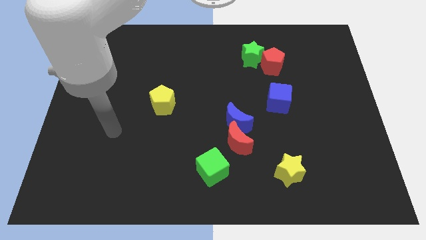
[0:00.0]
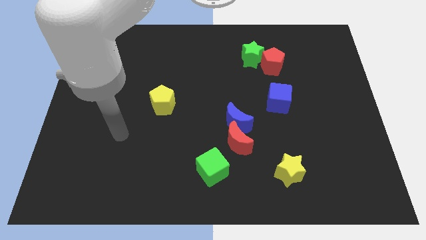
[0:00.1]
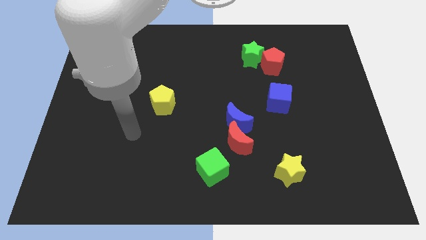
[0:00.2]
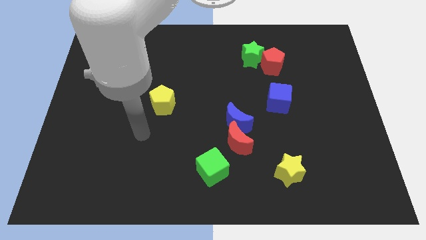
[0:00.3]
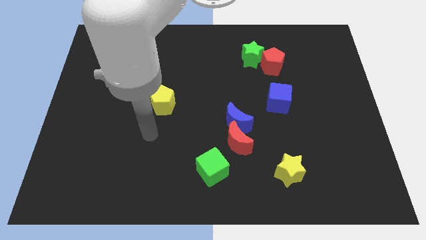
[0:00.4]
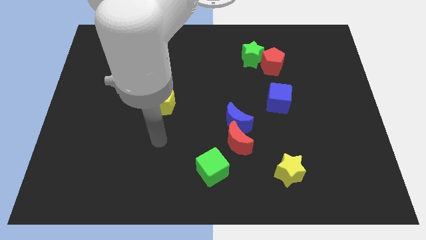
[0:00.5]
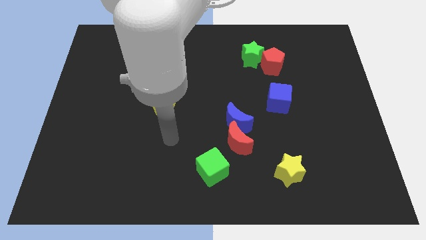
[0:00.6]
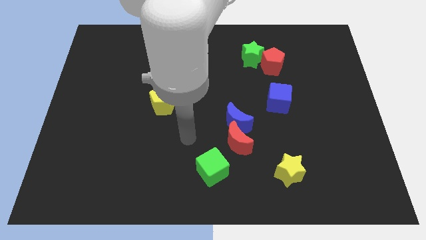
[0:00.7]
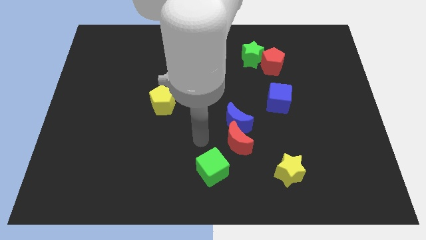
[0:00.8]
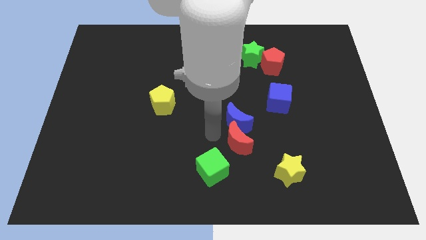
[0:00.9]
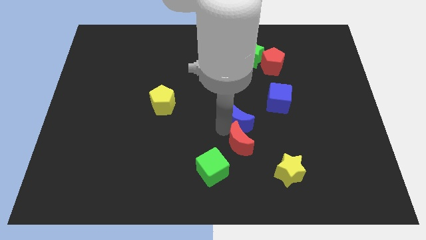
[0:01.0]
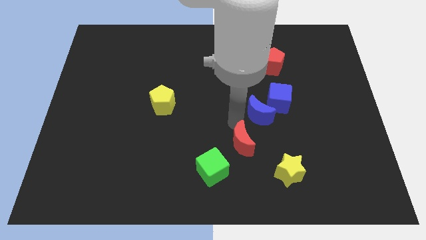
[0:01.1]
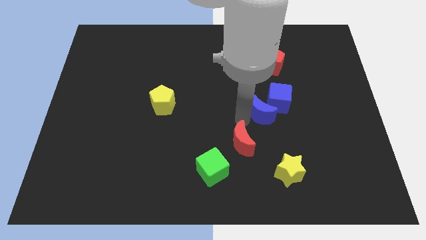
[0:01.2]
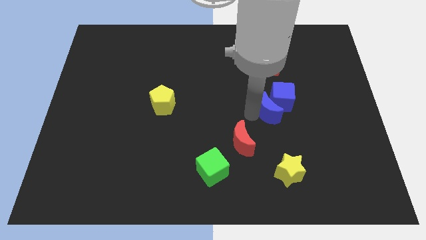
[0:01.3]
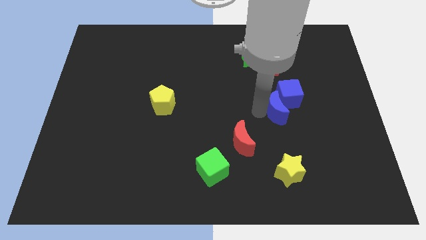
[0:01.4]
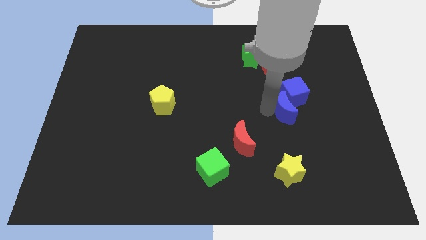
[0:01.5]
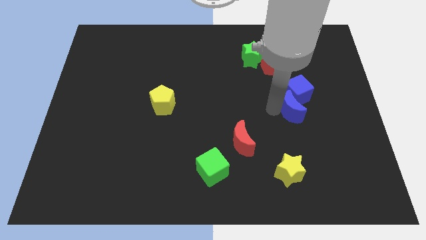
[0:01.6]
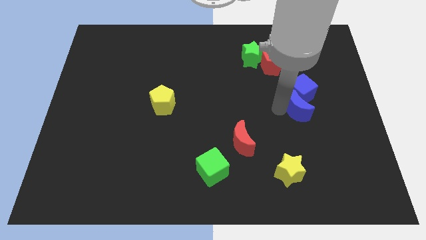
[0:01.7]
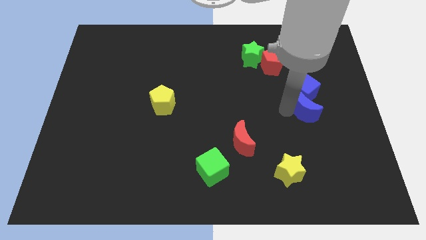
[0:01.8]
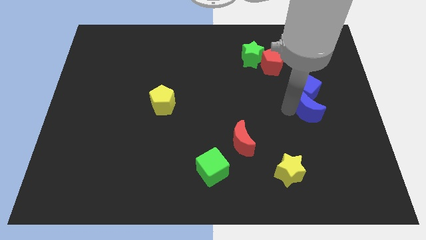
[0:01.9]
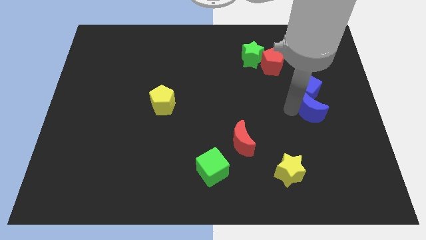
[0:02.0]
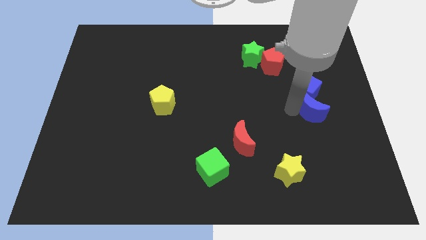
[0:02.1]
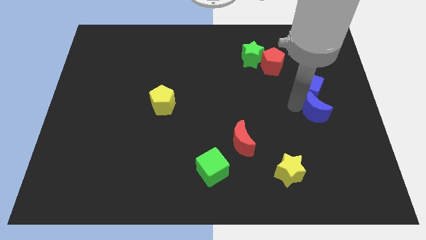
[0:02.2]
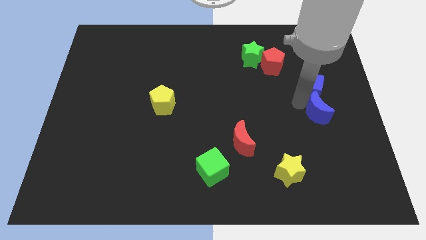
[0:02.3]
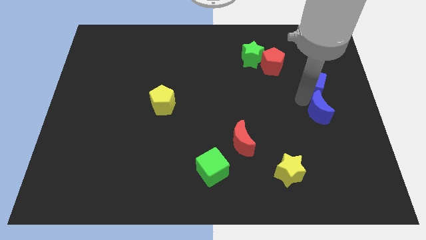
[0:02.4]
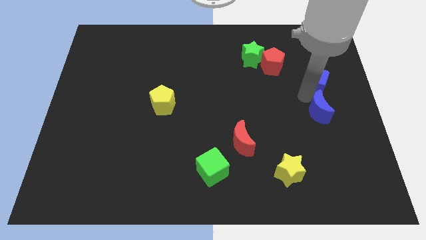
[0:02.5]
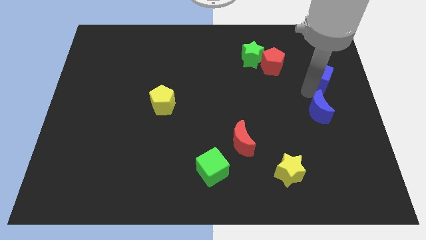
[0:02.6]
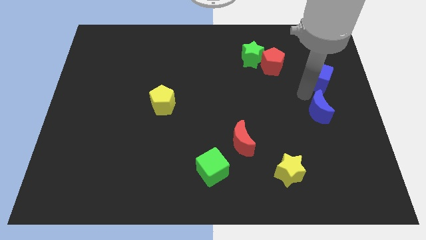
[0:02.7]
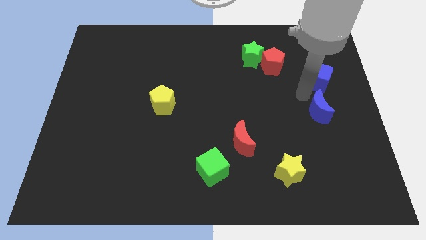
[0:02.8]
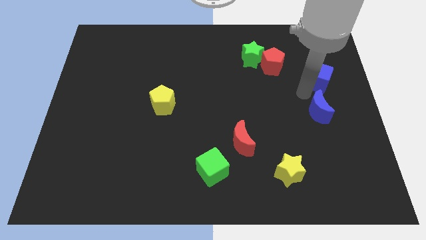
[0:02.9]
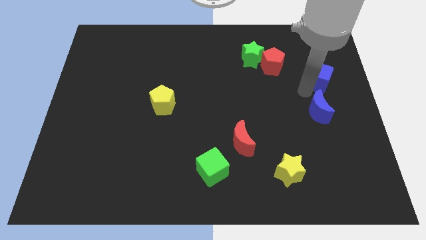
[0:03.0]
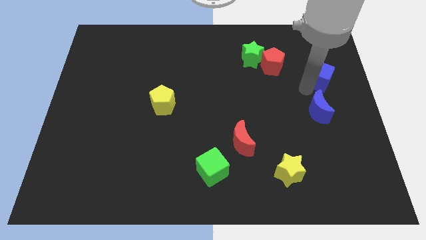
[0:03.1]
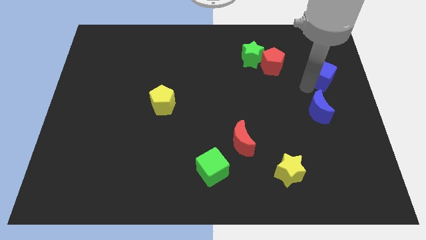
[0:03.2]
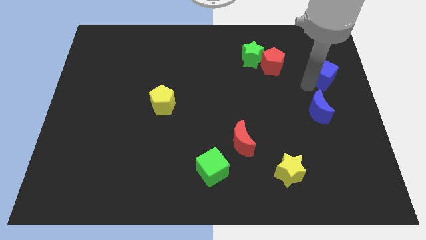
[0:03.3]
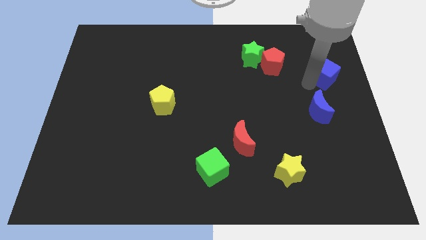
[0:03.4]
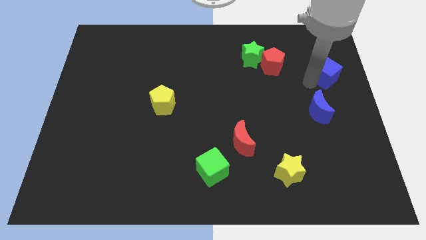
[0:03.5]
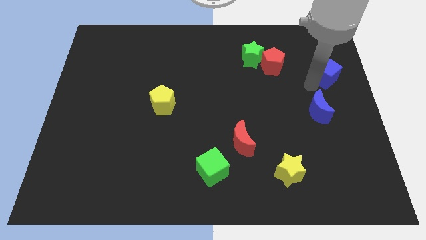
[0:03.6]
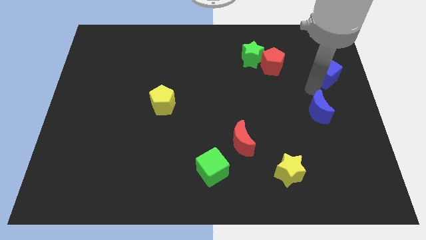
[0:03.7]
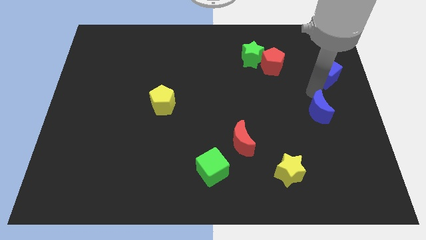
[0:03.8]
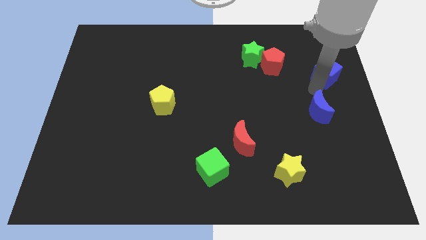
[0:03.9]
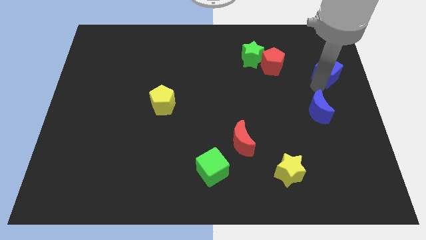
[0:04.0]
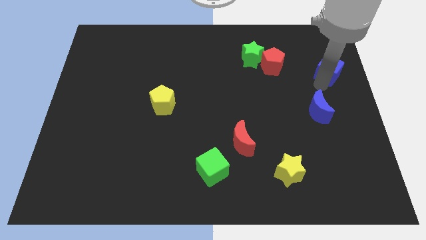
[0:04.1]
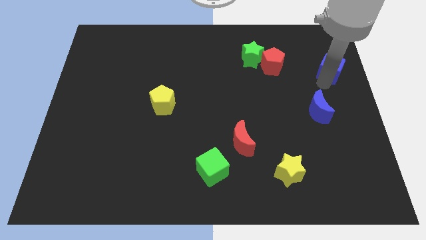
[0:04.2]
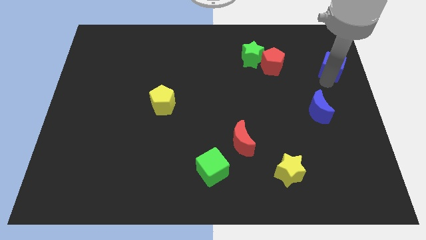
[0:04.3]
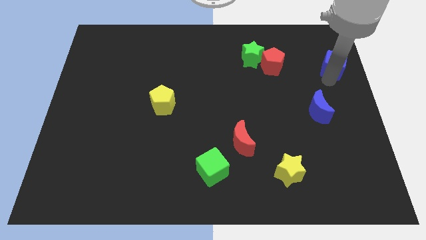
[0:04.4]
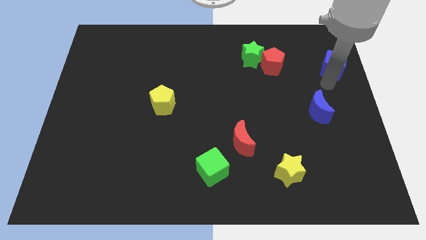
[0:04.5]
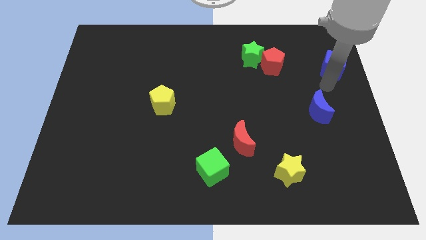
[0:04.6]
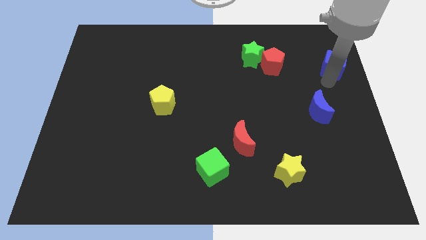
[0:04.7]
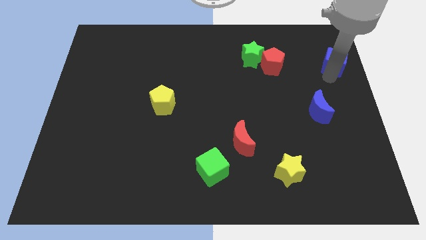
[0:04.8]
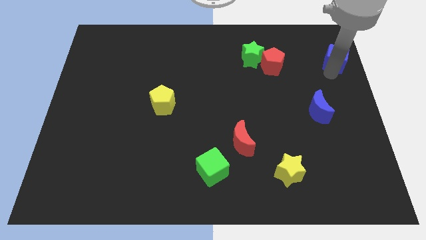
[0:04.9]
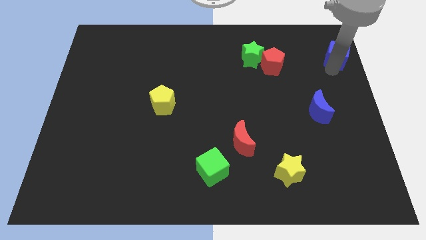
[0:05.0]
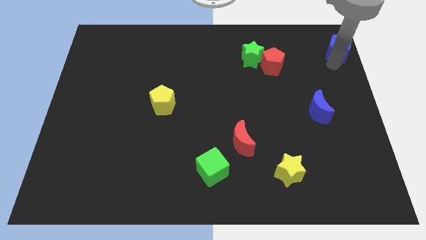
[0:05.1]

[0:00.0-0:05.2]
slide the blue cube to the top right of the board

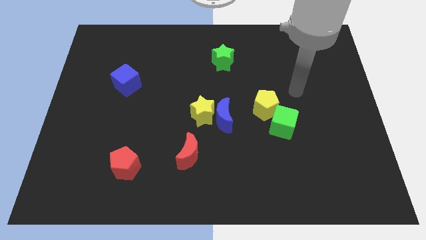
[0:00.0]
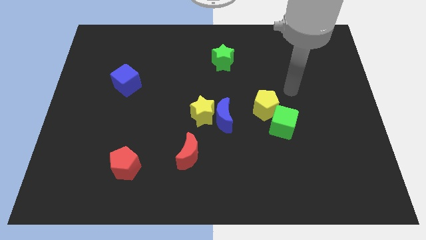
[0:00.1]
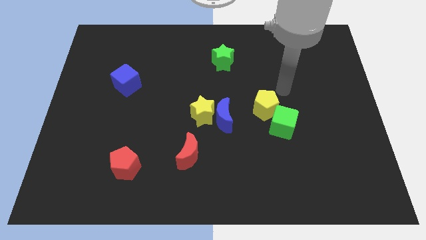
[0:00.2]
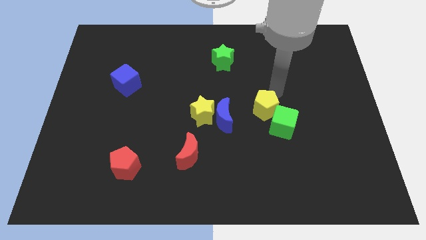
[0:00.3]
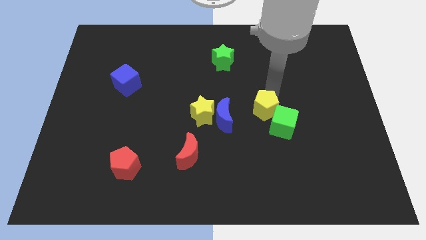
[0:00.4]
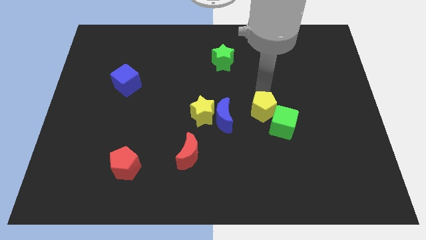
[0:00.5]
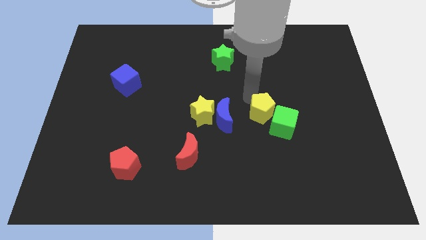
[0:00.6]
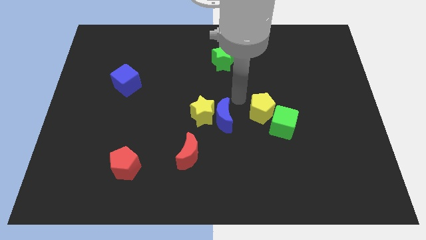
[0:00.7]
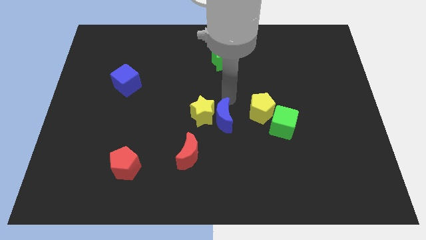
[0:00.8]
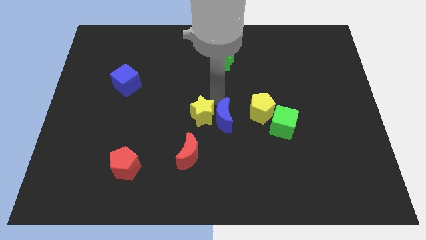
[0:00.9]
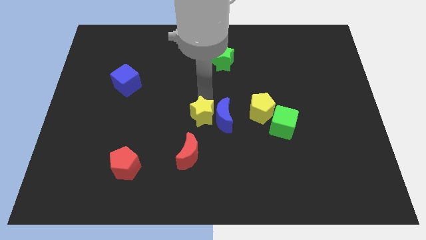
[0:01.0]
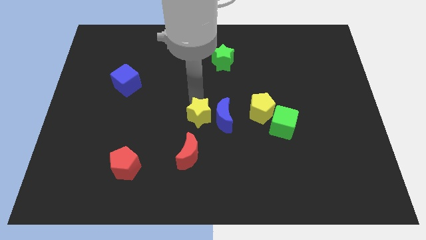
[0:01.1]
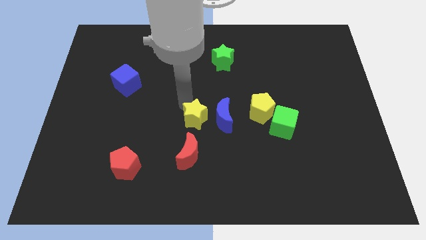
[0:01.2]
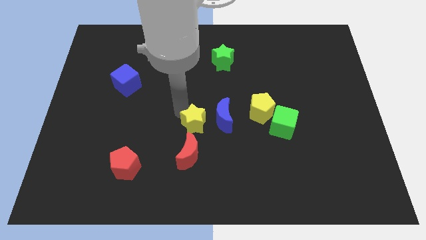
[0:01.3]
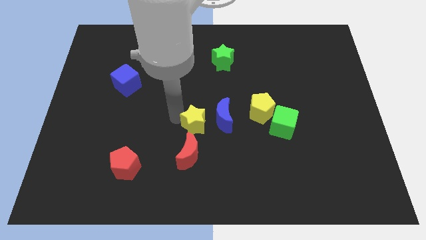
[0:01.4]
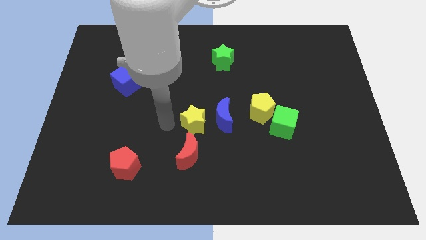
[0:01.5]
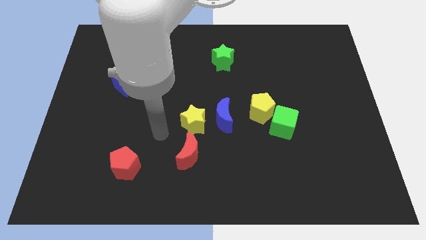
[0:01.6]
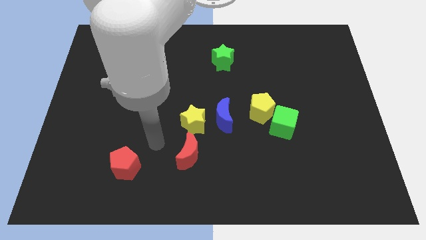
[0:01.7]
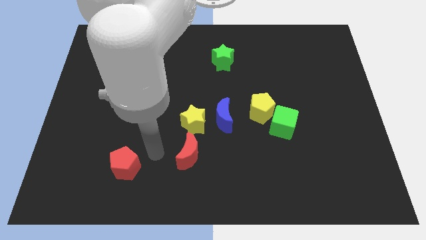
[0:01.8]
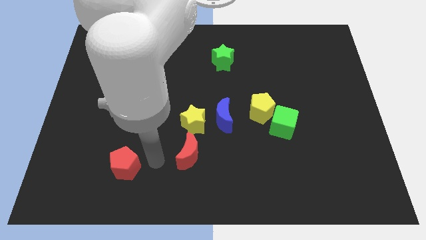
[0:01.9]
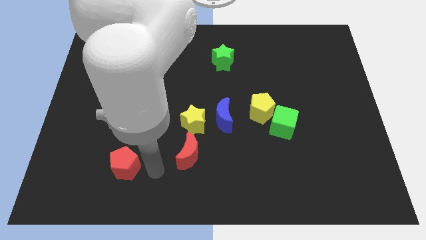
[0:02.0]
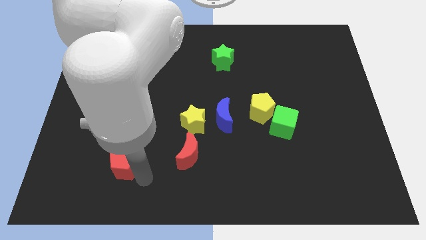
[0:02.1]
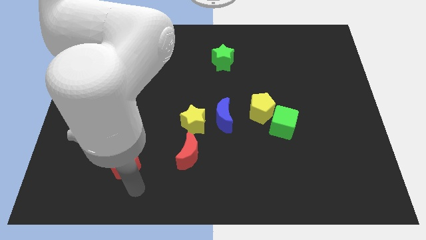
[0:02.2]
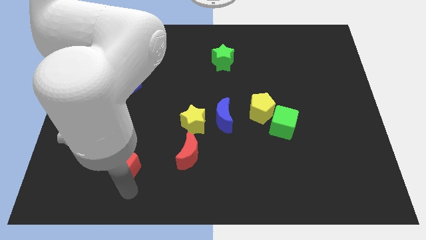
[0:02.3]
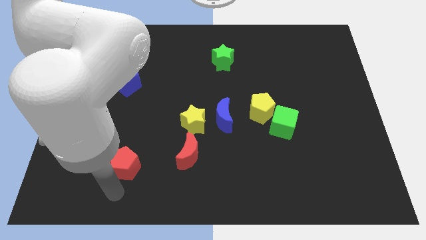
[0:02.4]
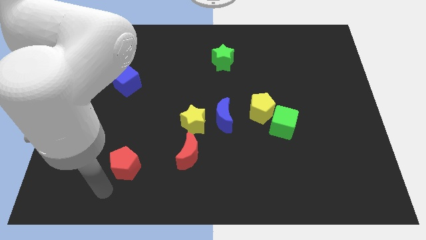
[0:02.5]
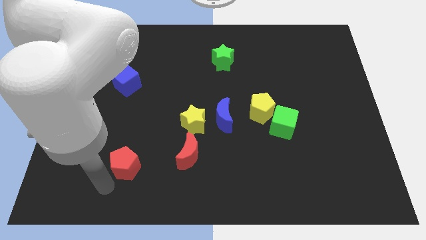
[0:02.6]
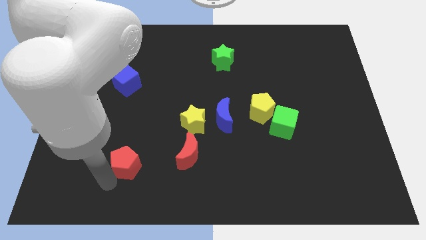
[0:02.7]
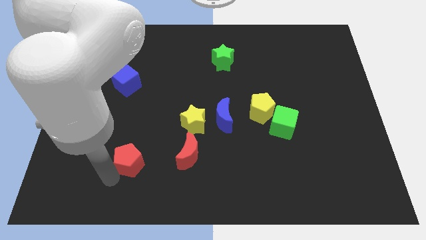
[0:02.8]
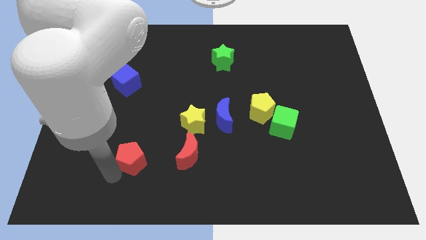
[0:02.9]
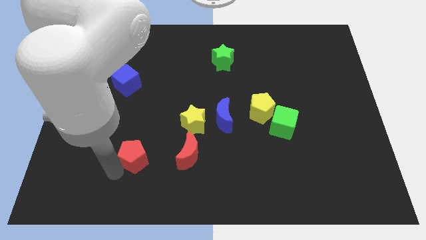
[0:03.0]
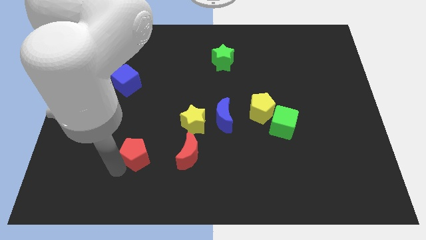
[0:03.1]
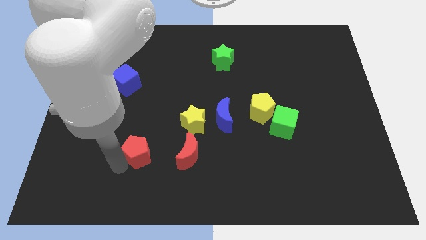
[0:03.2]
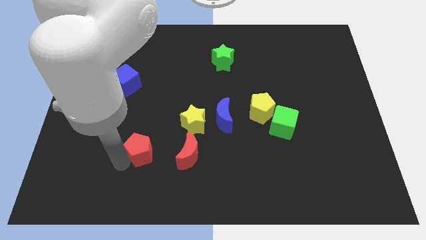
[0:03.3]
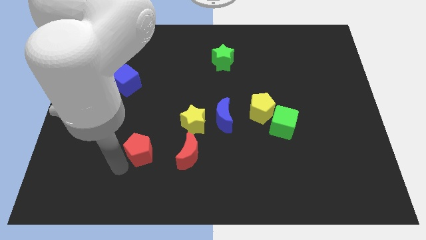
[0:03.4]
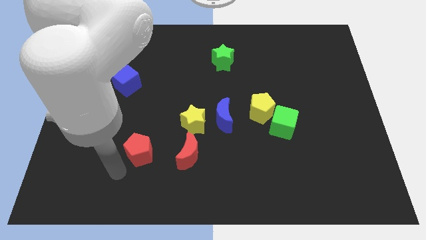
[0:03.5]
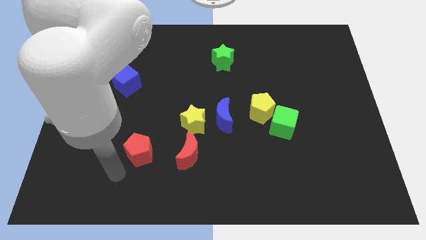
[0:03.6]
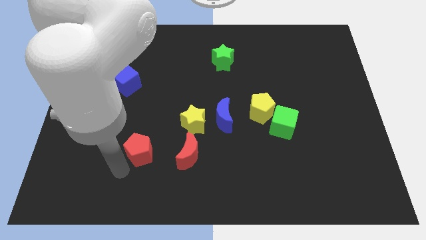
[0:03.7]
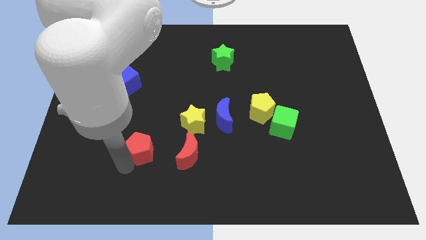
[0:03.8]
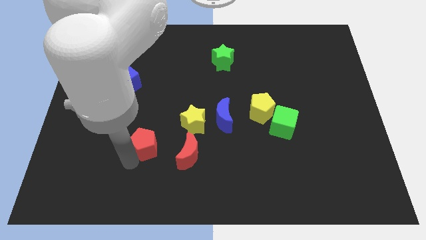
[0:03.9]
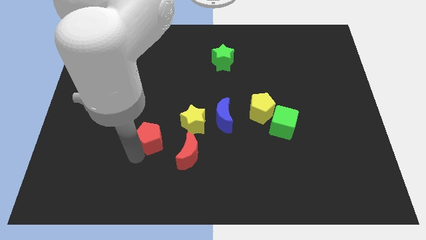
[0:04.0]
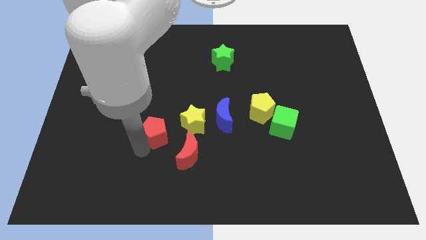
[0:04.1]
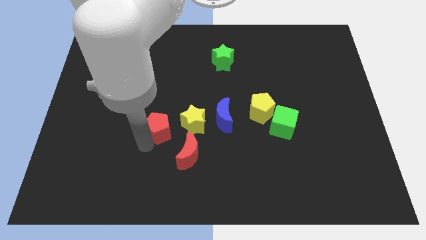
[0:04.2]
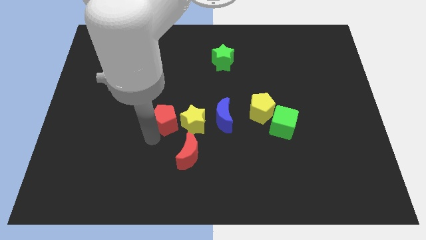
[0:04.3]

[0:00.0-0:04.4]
slide the red pentagon to the middle
